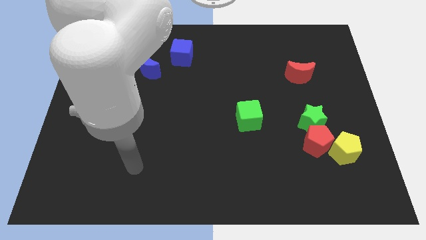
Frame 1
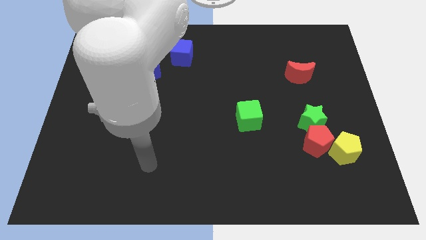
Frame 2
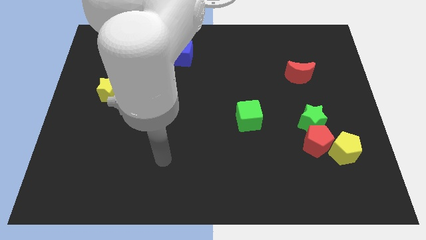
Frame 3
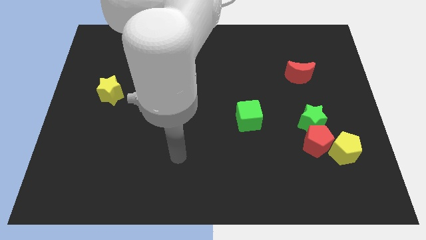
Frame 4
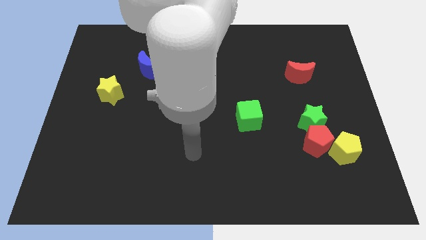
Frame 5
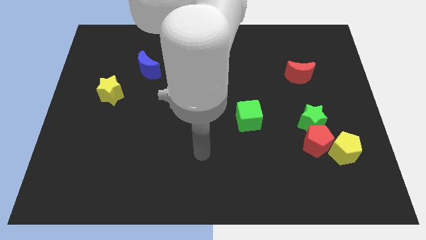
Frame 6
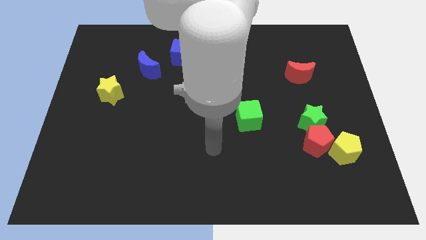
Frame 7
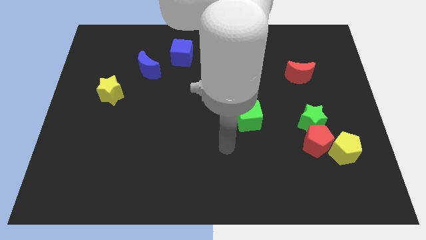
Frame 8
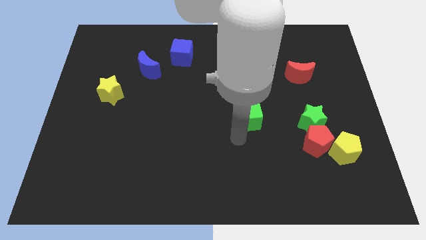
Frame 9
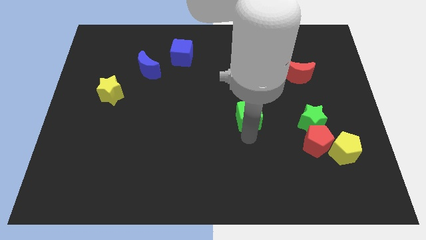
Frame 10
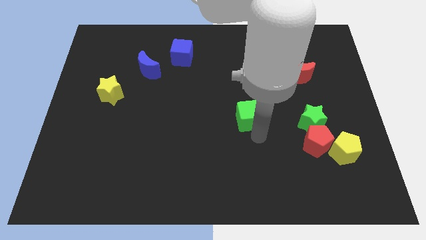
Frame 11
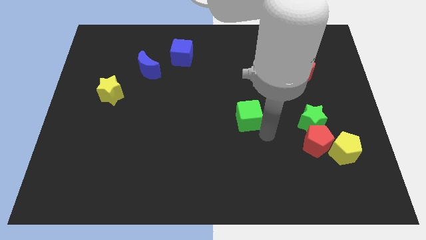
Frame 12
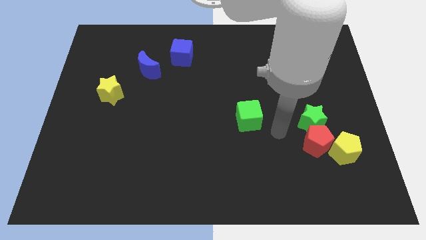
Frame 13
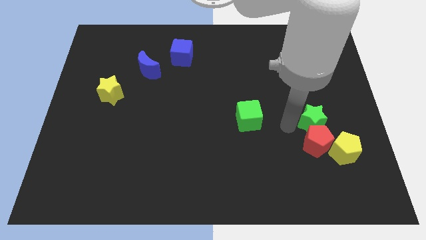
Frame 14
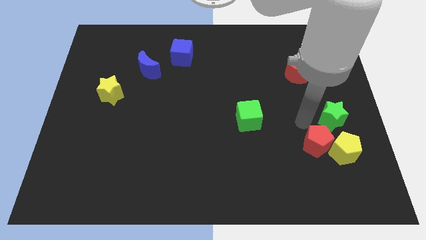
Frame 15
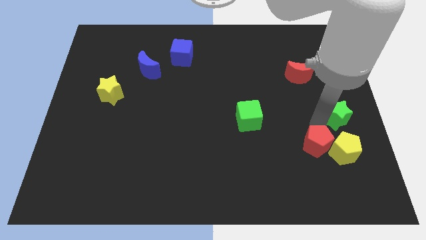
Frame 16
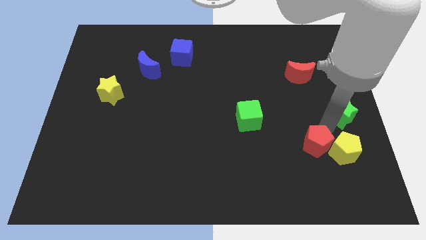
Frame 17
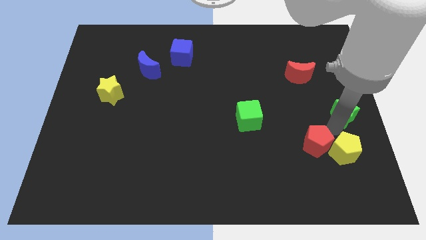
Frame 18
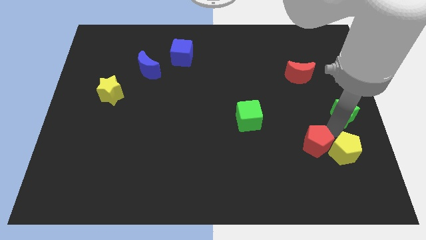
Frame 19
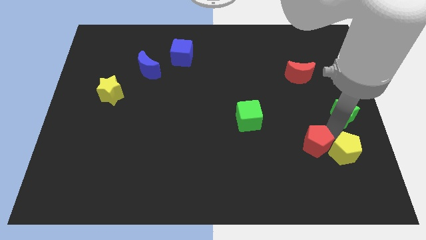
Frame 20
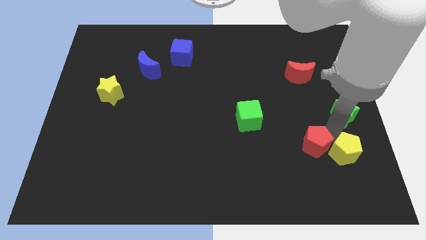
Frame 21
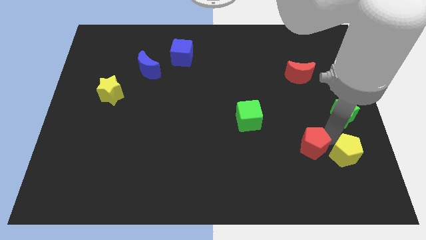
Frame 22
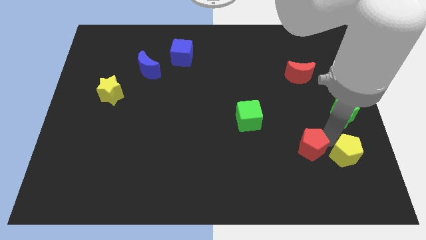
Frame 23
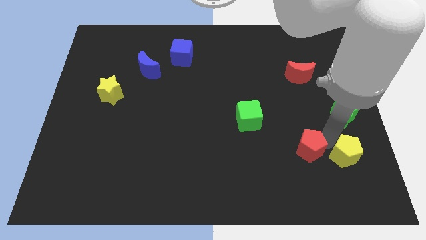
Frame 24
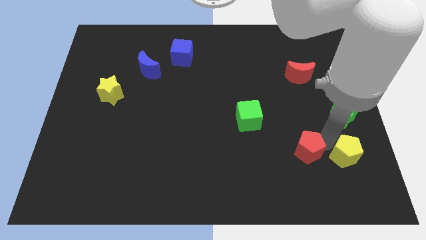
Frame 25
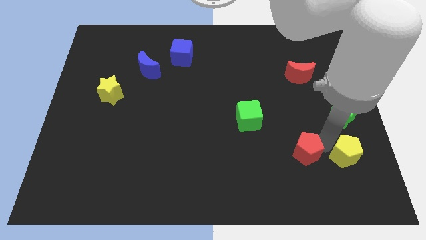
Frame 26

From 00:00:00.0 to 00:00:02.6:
pull the red pentagon apart from the yellow pentagon and green star

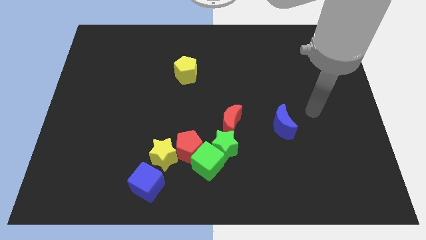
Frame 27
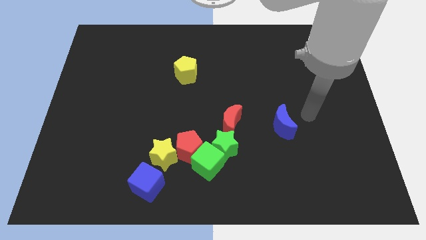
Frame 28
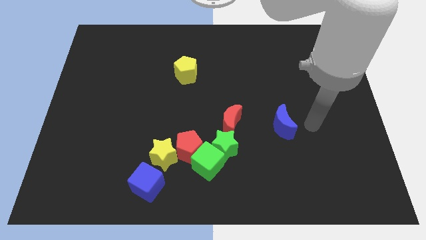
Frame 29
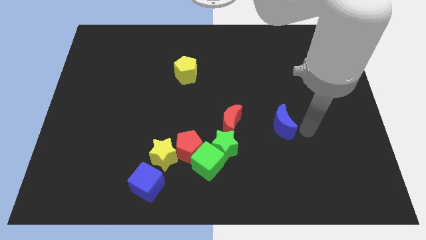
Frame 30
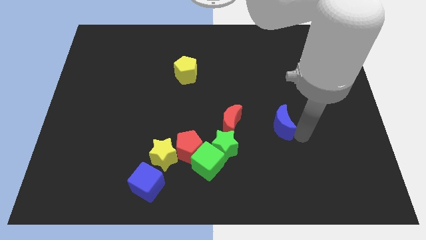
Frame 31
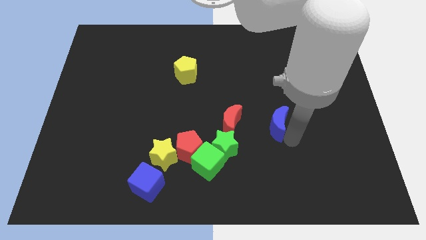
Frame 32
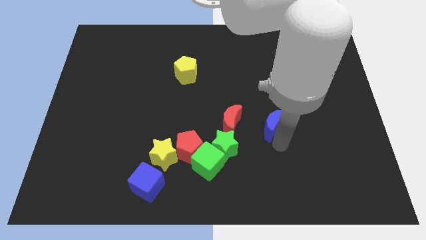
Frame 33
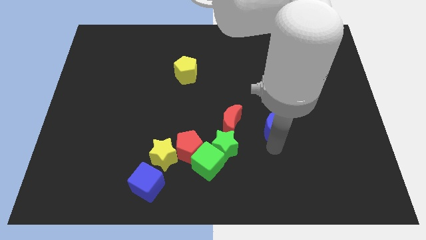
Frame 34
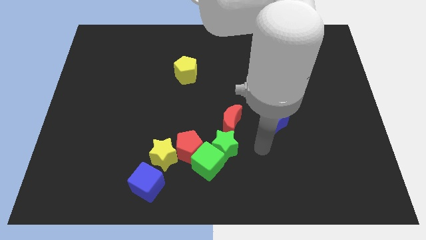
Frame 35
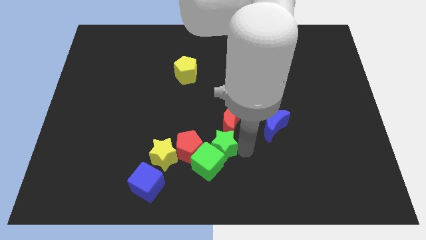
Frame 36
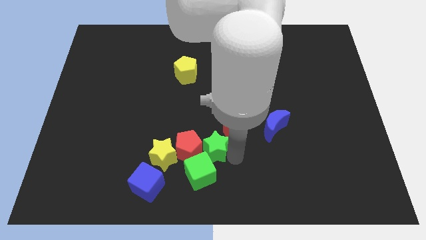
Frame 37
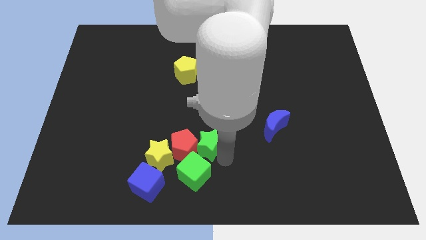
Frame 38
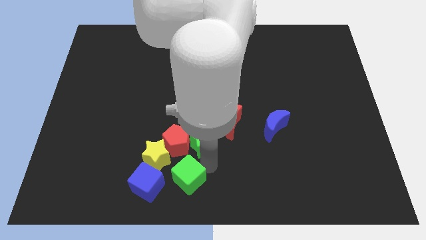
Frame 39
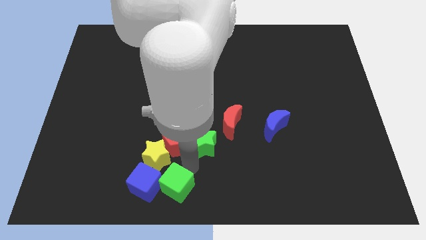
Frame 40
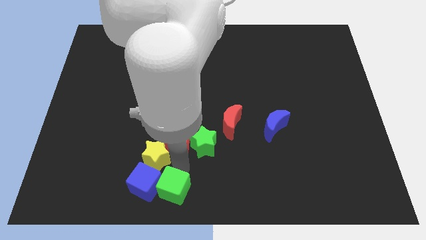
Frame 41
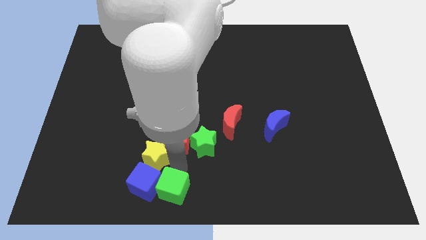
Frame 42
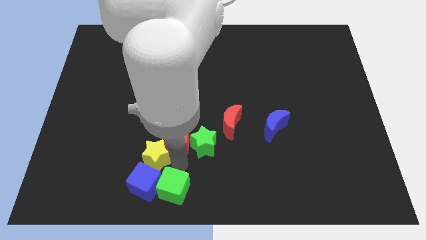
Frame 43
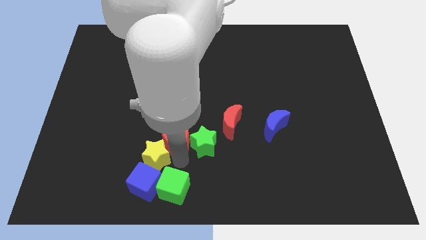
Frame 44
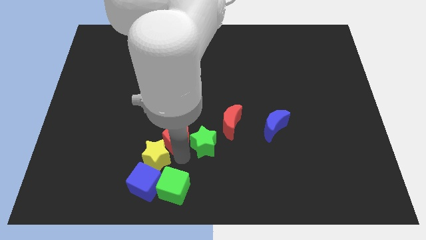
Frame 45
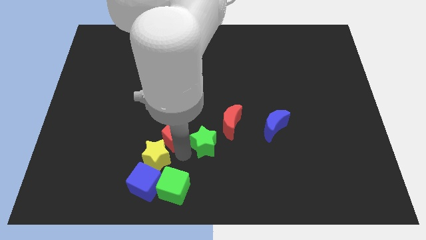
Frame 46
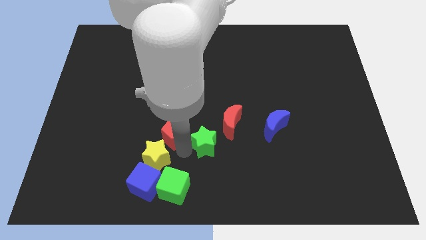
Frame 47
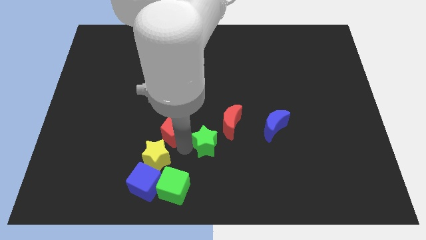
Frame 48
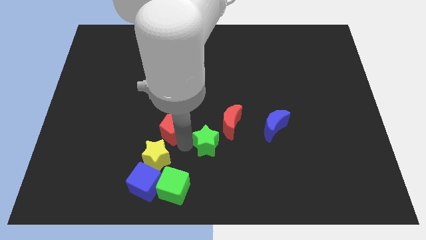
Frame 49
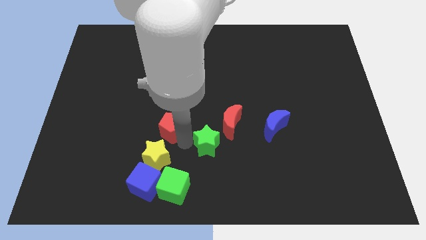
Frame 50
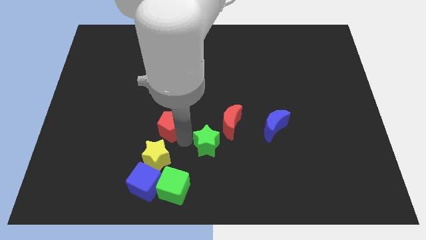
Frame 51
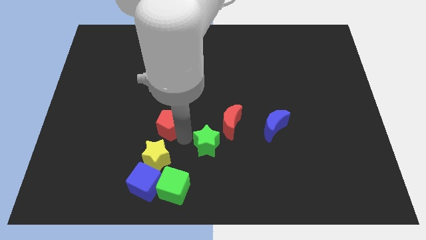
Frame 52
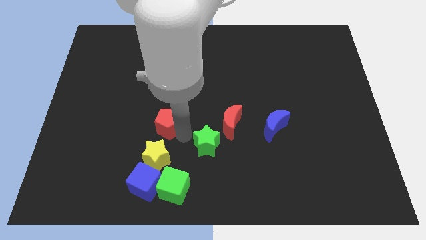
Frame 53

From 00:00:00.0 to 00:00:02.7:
pull the red pentagon apart from the green cube, yellow star, and green star

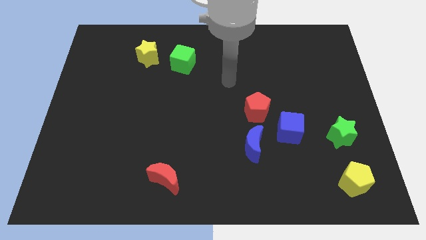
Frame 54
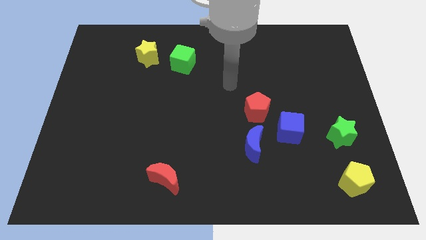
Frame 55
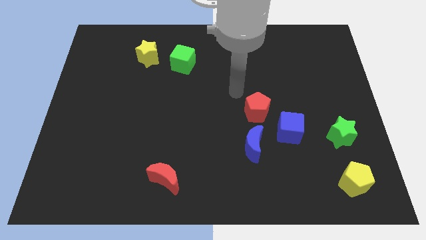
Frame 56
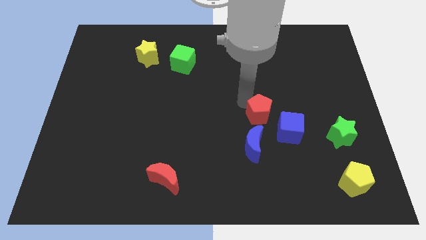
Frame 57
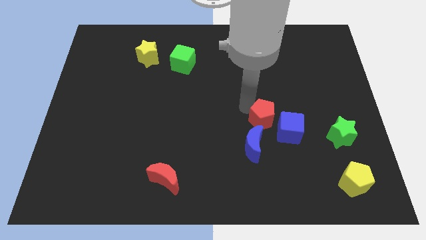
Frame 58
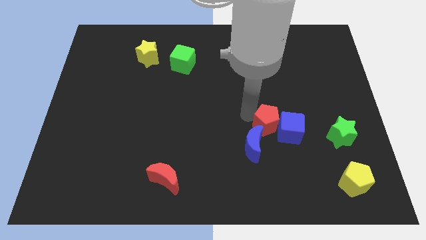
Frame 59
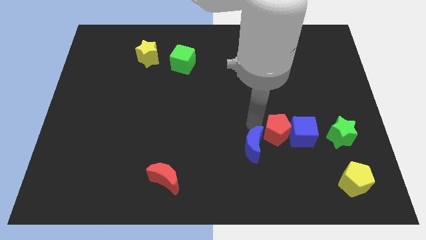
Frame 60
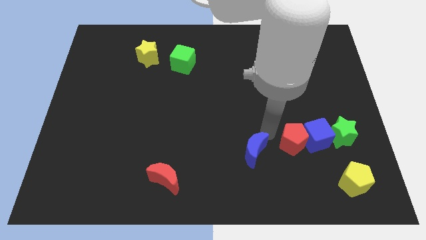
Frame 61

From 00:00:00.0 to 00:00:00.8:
move the blue cube away from the red pentagon and blue moon

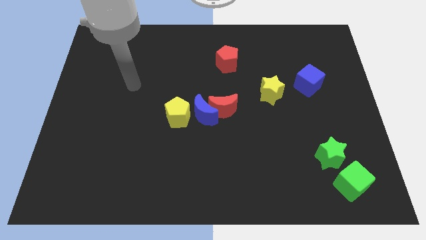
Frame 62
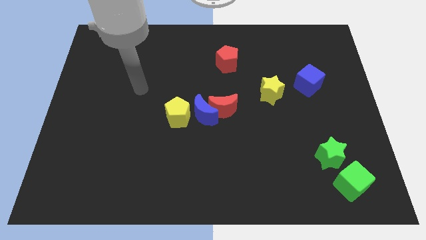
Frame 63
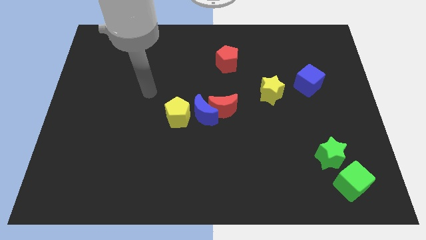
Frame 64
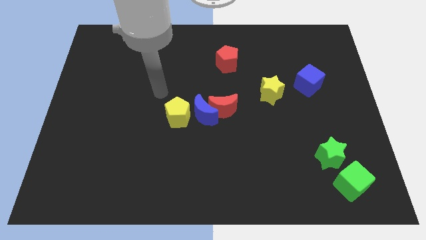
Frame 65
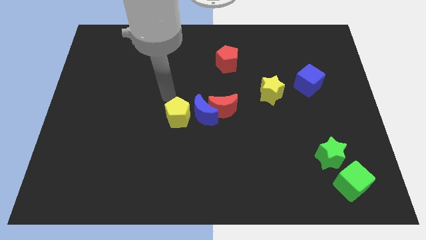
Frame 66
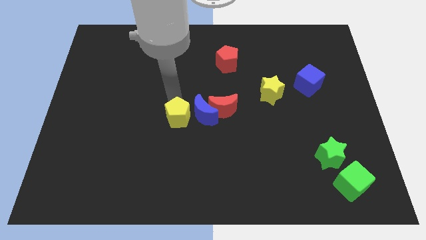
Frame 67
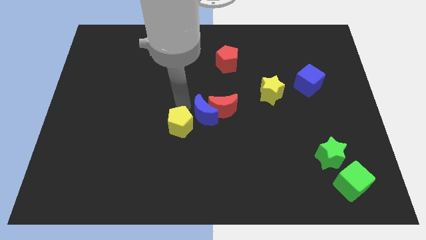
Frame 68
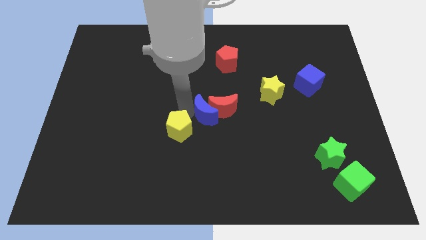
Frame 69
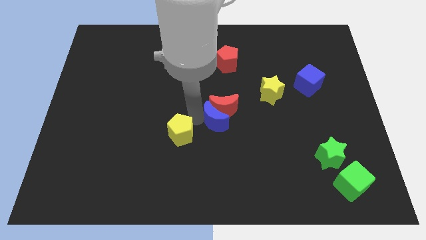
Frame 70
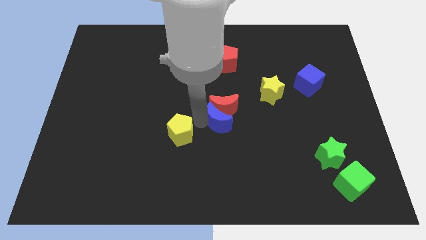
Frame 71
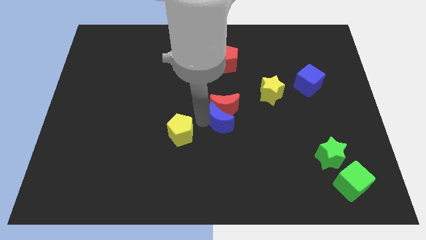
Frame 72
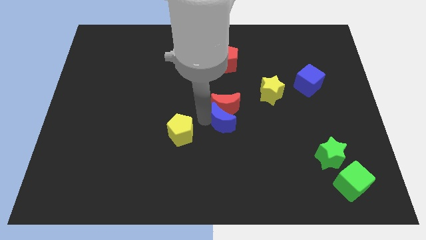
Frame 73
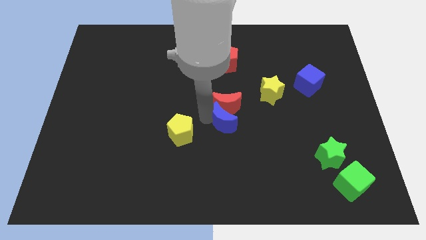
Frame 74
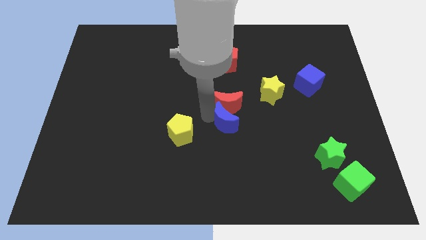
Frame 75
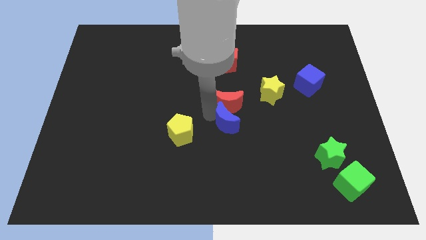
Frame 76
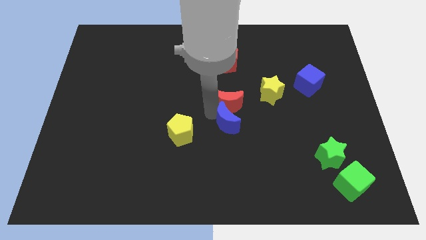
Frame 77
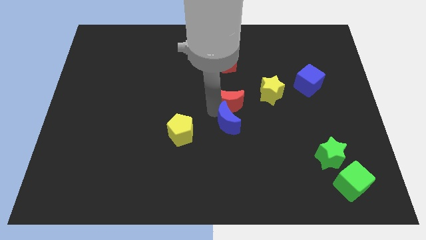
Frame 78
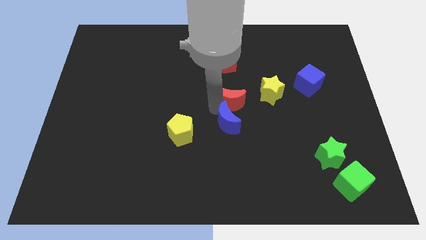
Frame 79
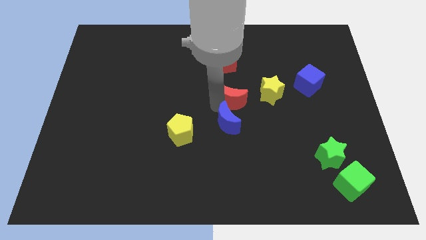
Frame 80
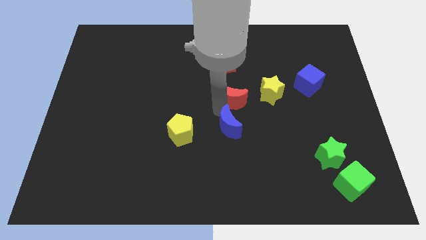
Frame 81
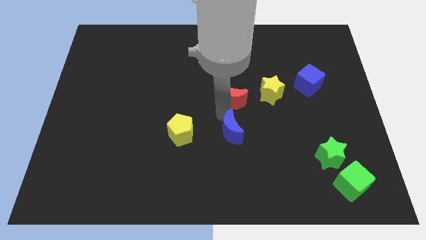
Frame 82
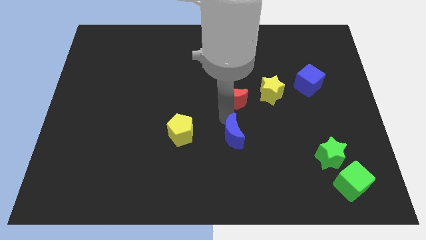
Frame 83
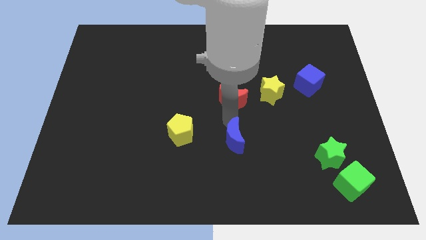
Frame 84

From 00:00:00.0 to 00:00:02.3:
separate the red moon from the blue moon

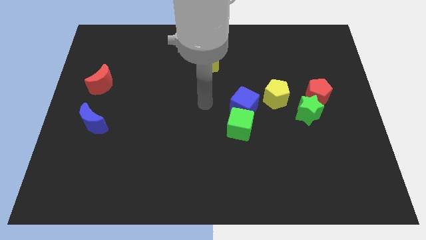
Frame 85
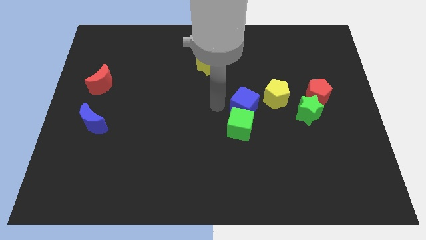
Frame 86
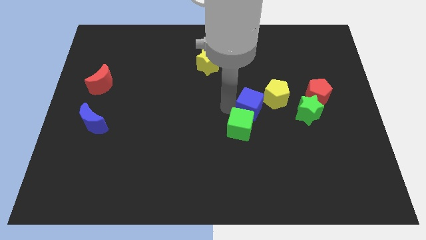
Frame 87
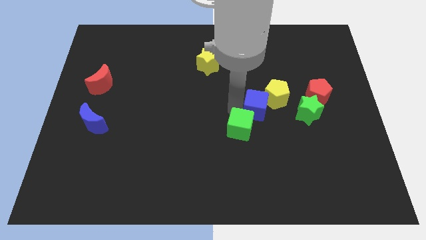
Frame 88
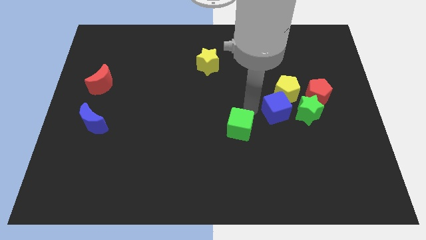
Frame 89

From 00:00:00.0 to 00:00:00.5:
separate the green cube from the blue cube

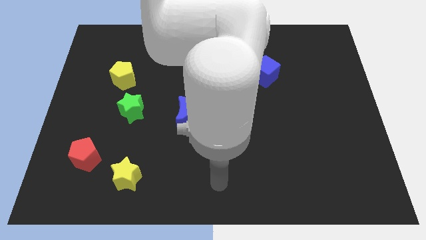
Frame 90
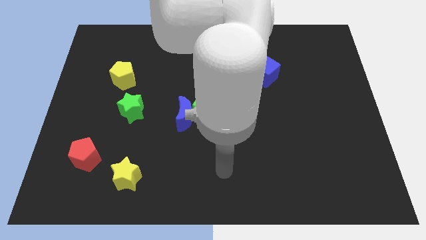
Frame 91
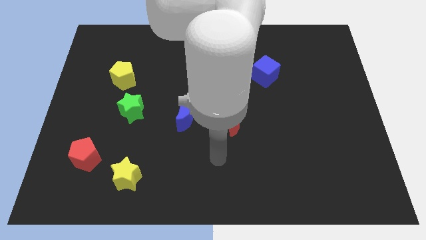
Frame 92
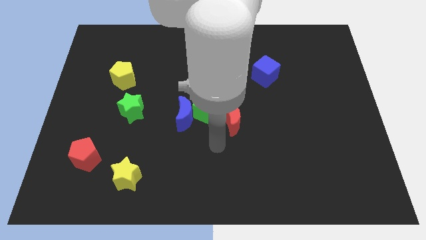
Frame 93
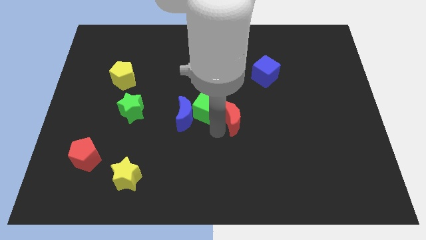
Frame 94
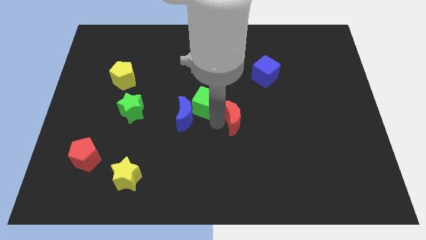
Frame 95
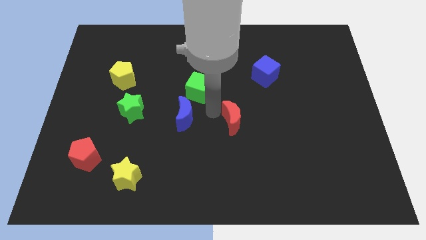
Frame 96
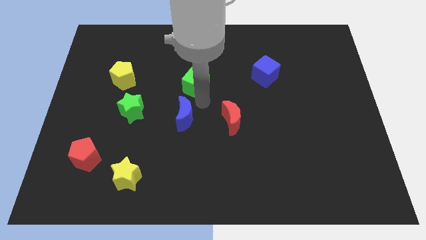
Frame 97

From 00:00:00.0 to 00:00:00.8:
pull the blue moon apart from the green cube
